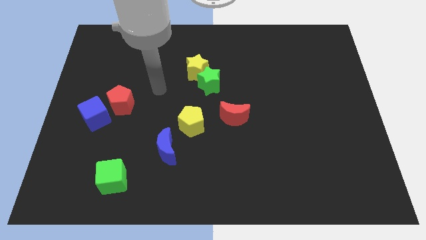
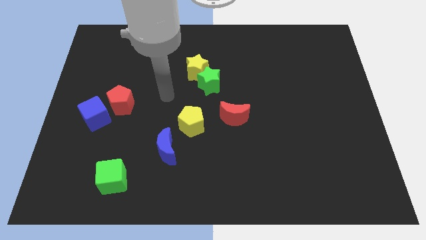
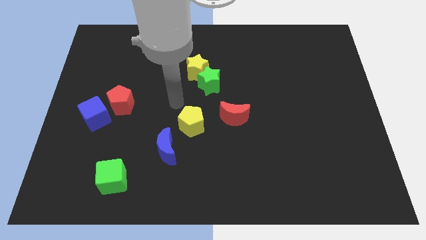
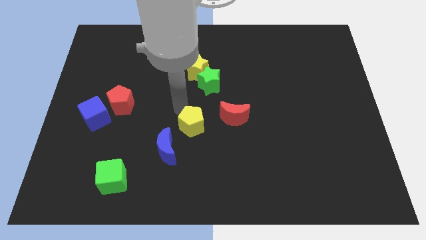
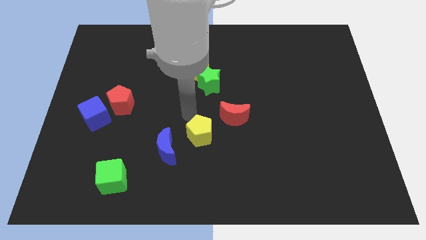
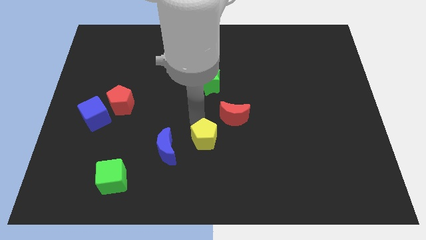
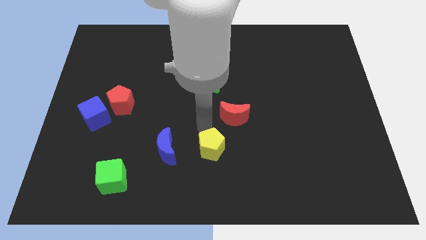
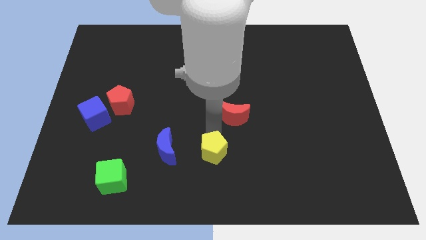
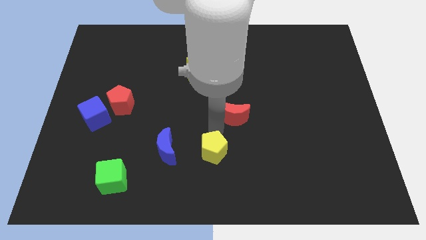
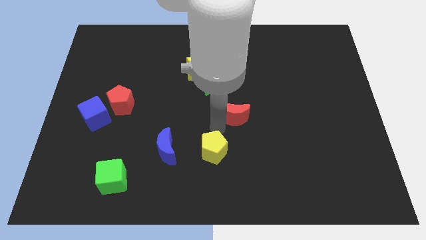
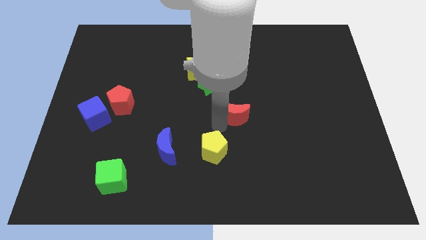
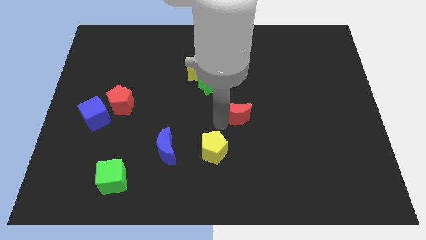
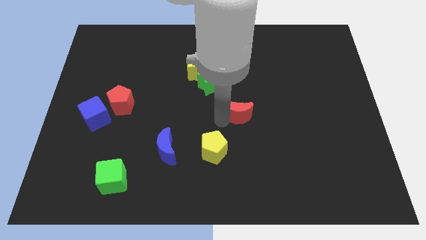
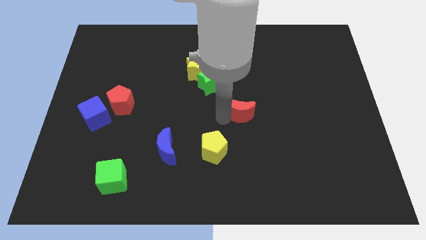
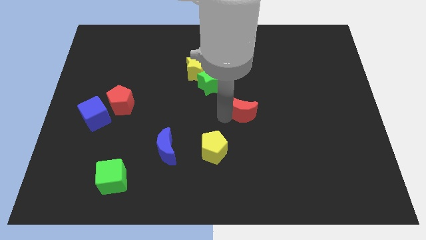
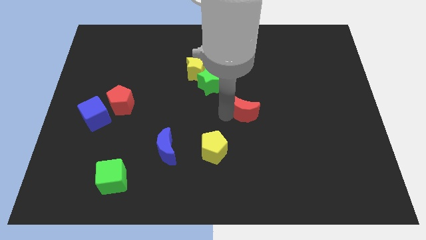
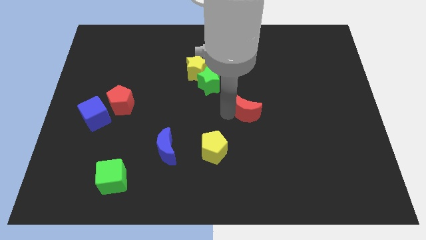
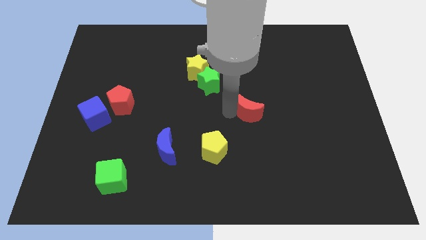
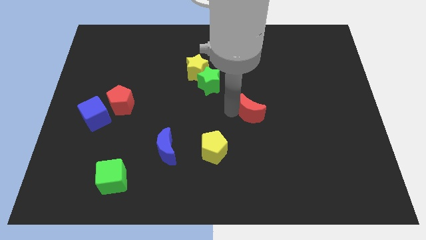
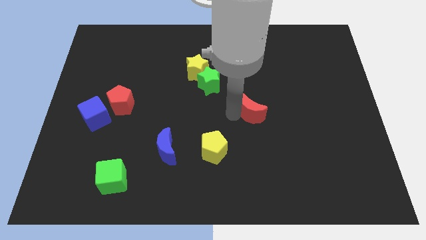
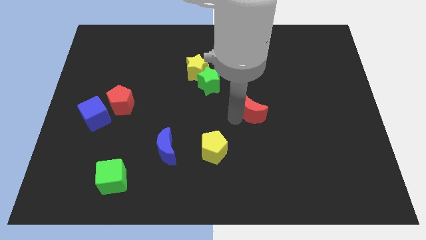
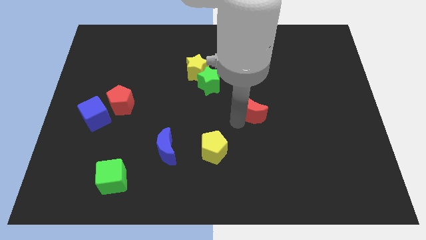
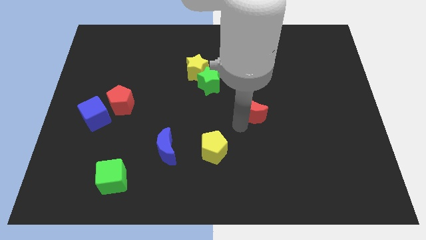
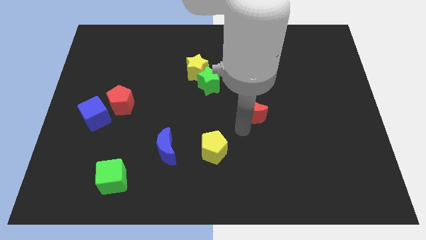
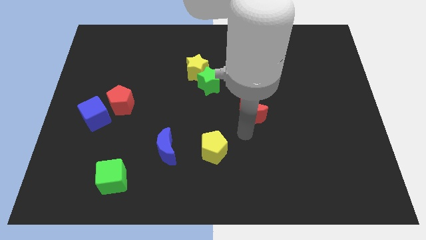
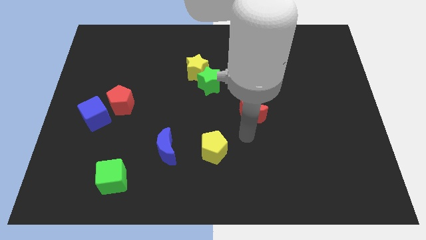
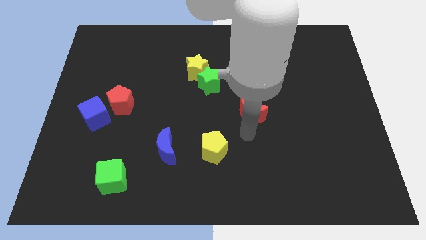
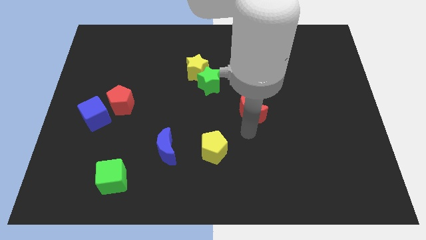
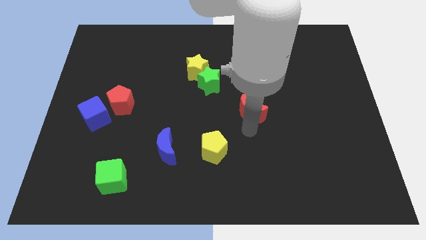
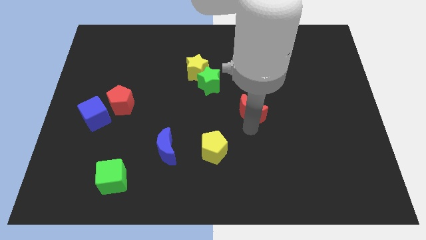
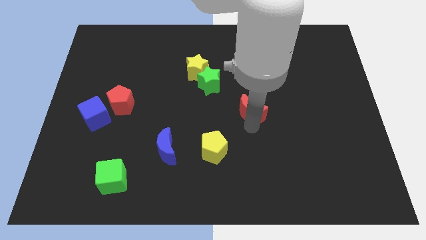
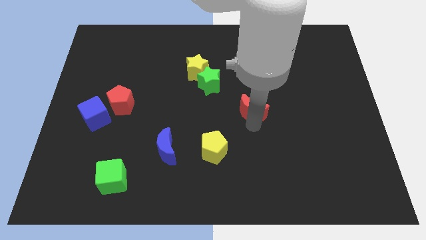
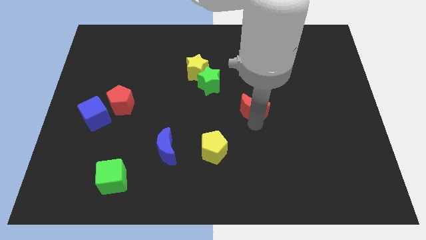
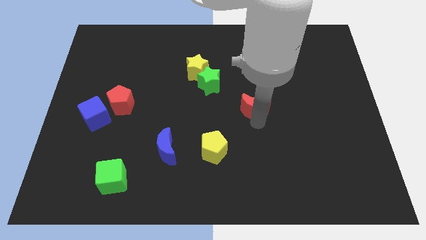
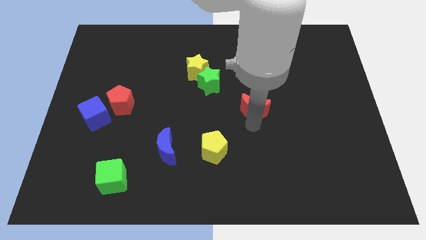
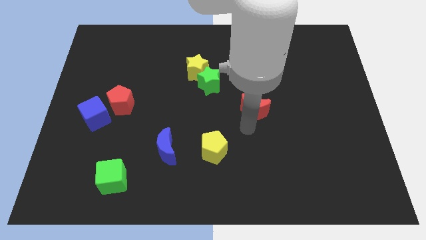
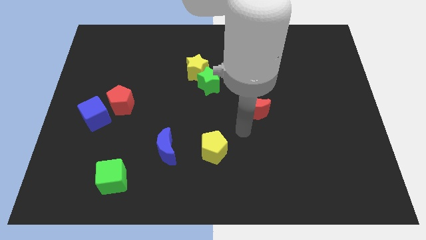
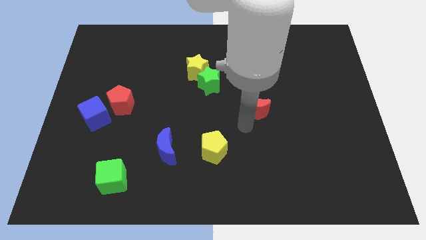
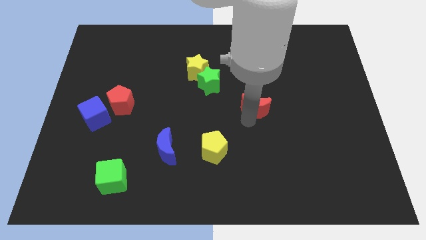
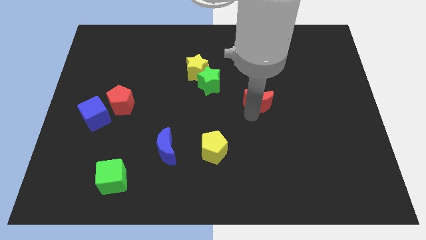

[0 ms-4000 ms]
slide the red moon a little bit up and then right

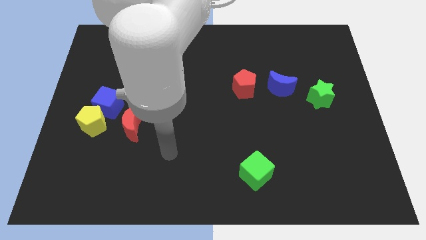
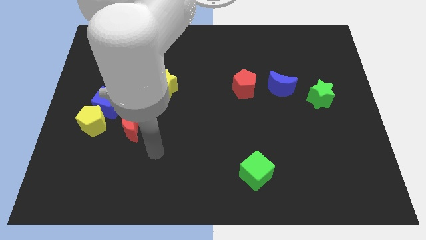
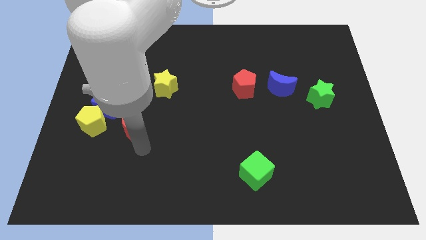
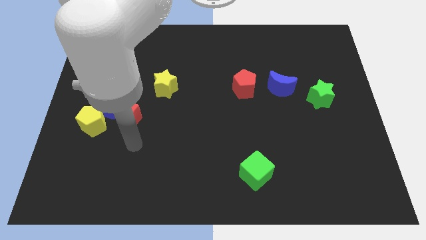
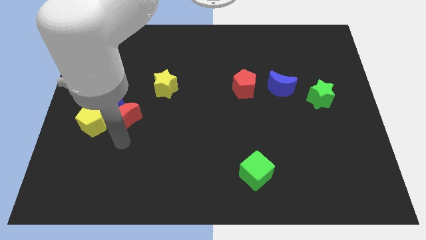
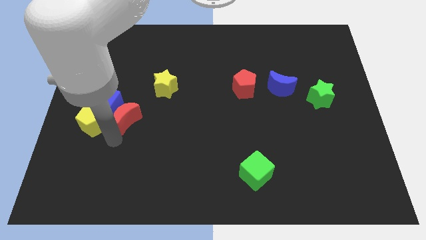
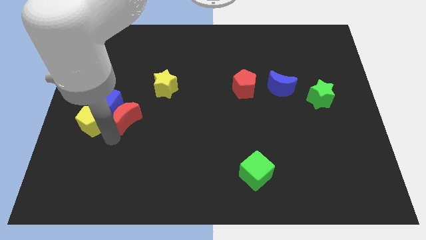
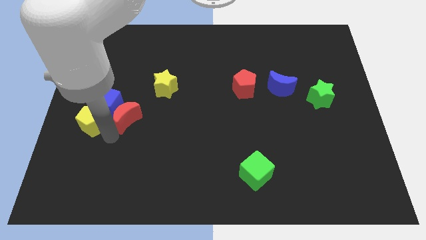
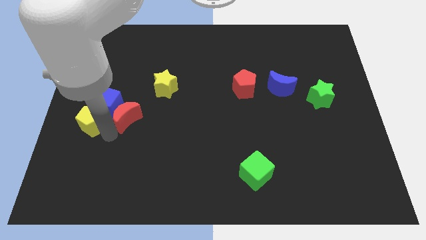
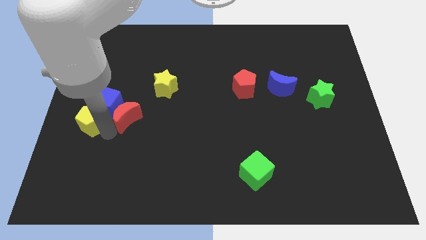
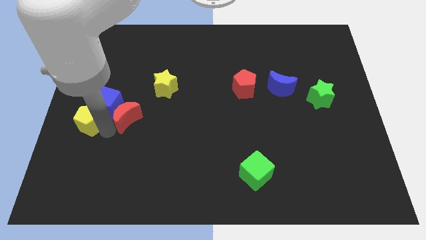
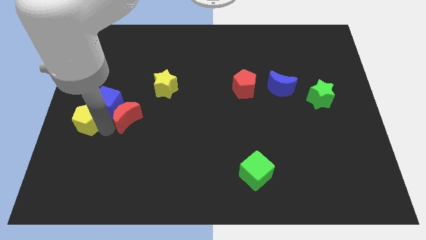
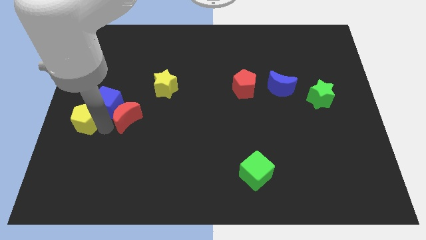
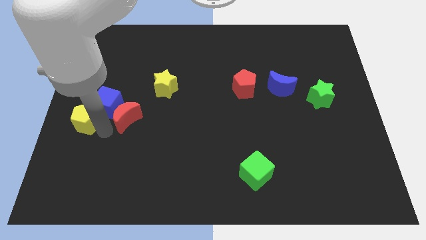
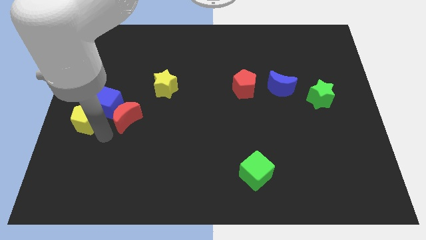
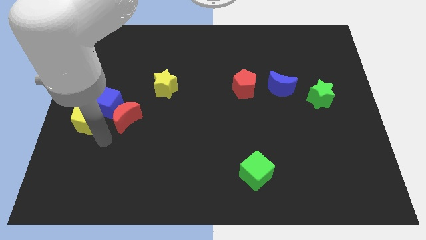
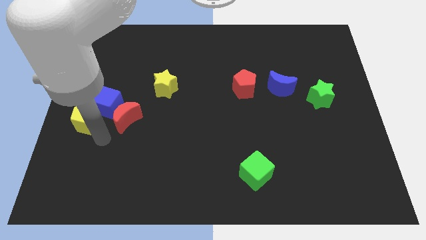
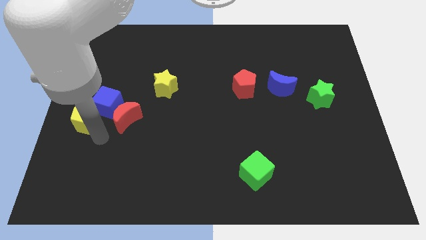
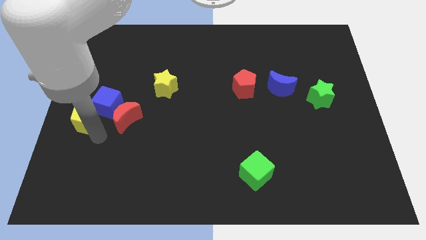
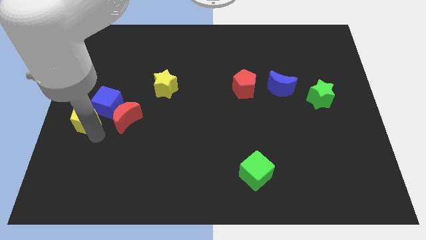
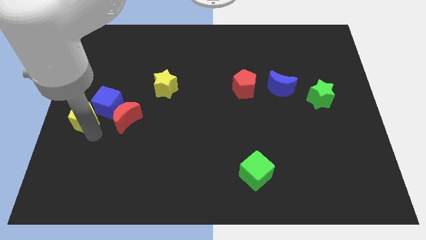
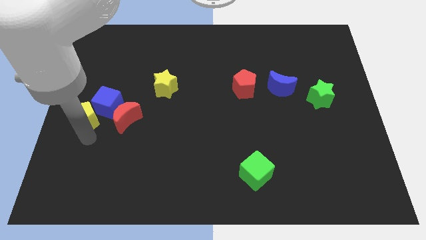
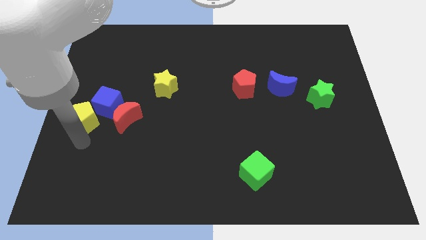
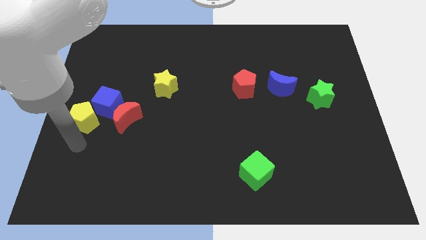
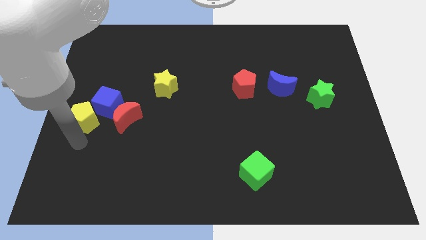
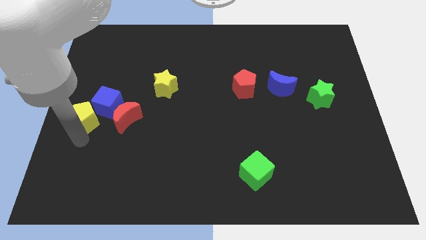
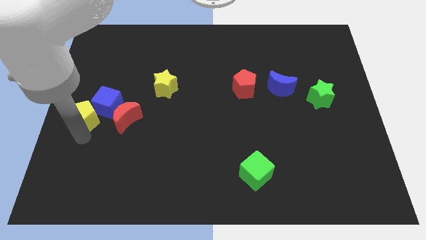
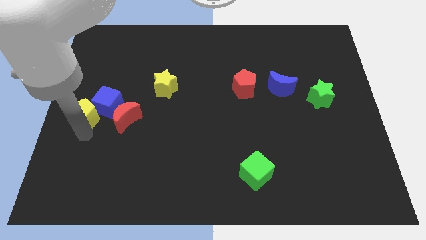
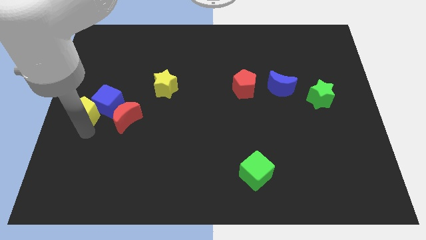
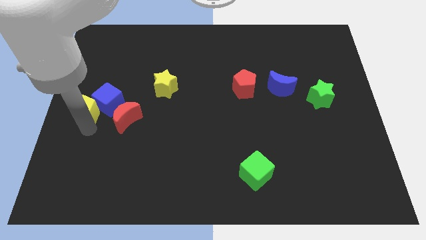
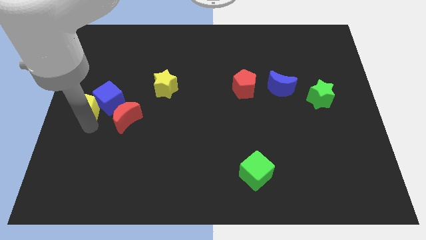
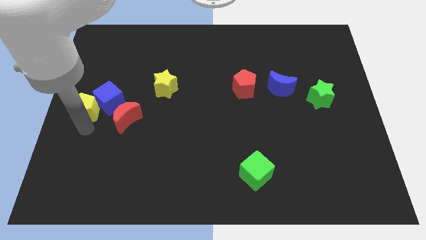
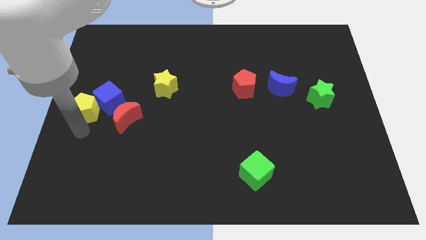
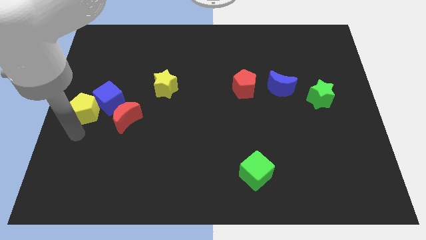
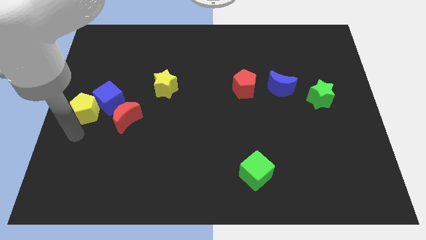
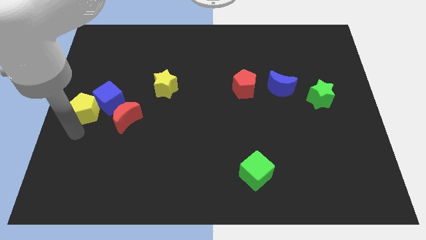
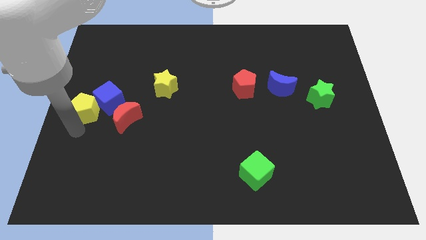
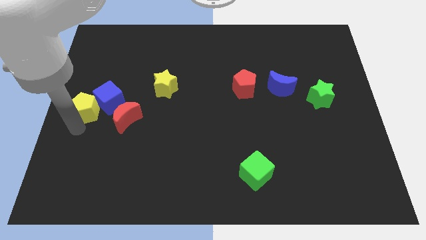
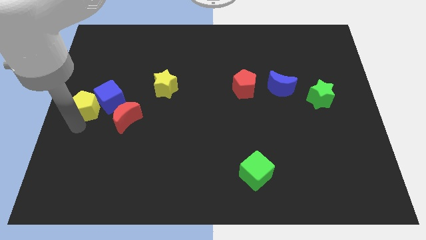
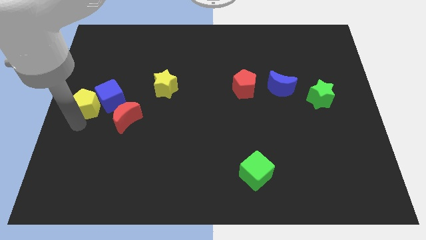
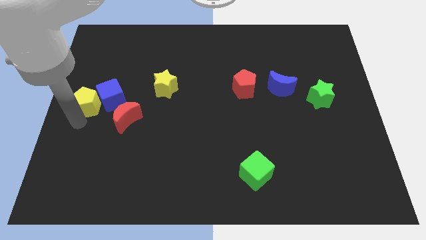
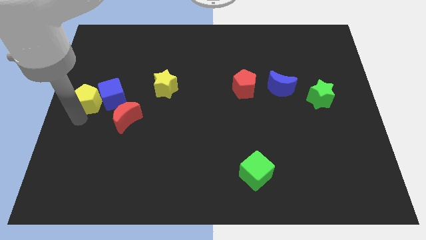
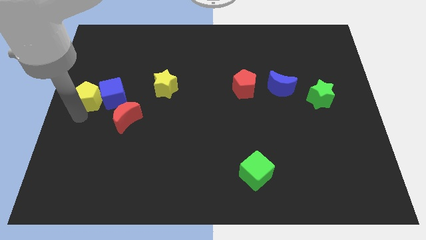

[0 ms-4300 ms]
move the yellow pentagon a bit up
